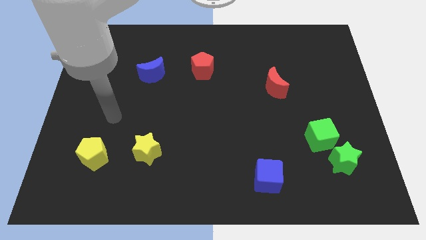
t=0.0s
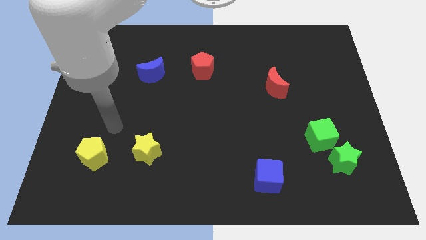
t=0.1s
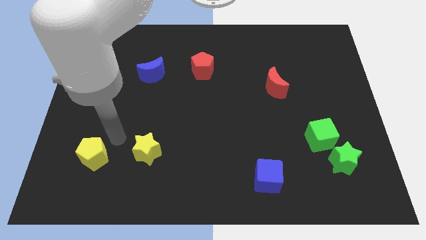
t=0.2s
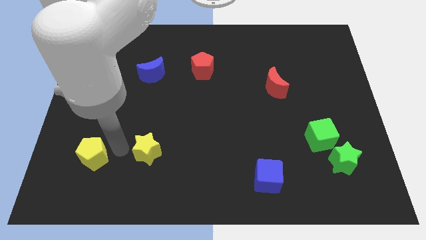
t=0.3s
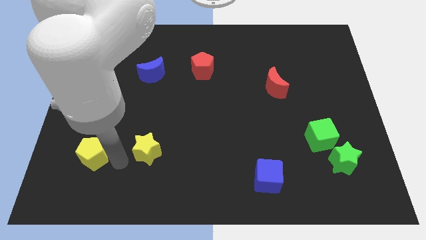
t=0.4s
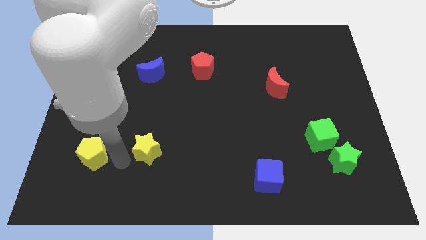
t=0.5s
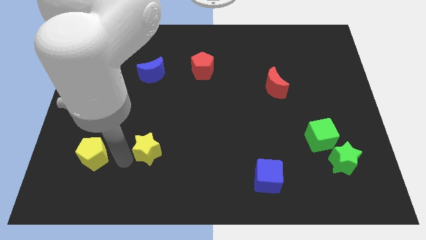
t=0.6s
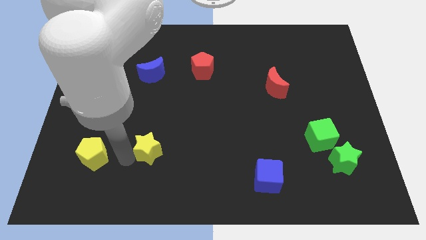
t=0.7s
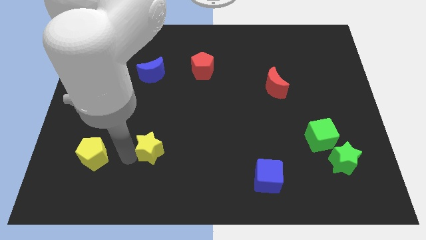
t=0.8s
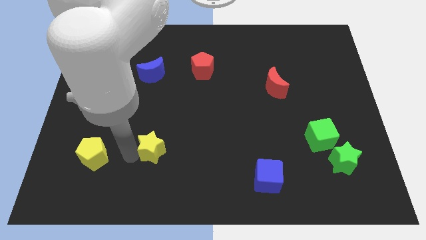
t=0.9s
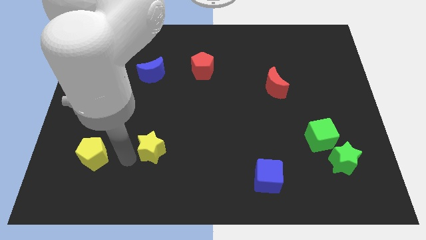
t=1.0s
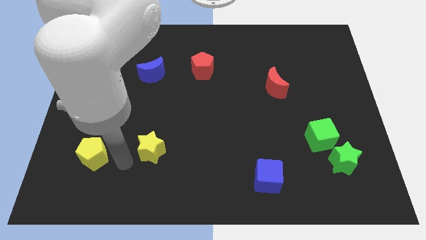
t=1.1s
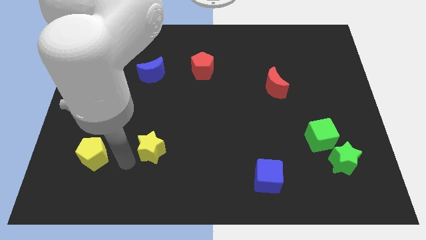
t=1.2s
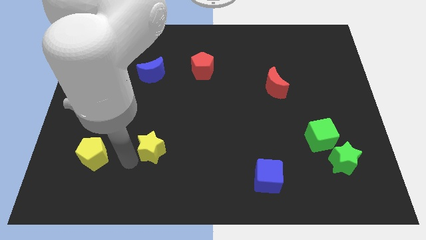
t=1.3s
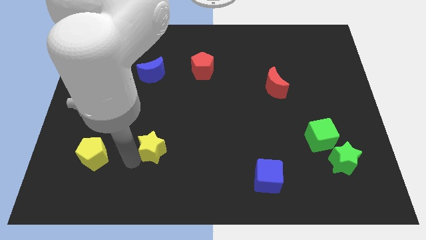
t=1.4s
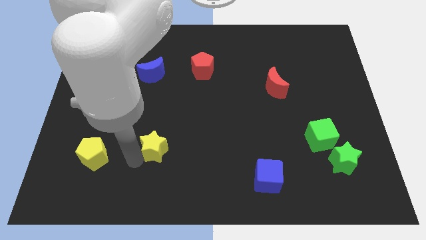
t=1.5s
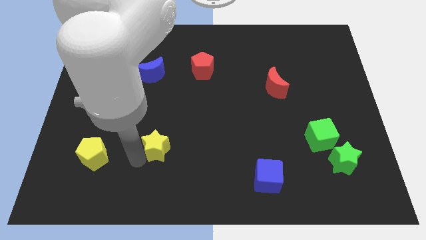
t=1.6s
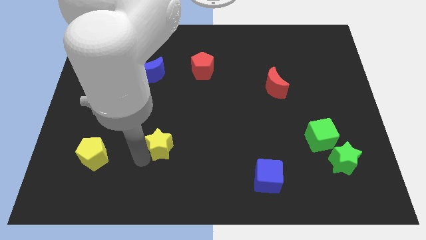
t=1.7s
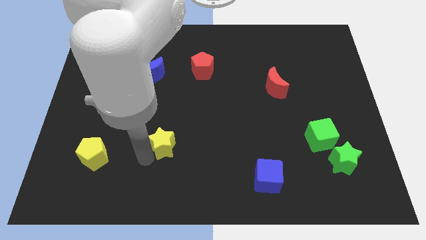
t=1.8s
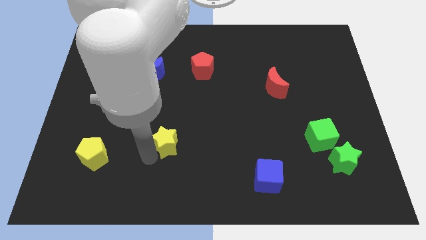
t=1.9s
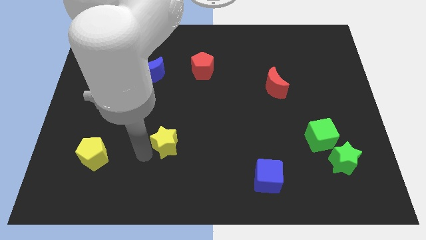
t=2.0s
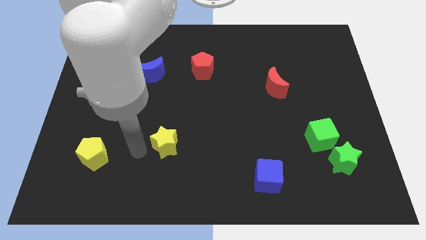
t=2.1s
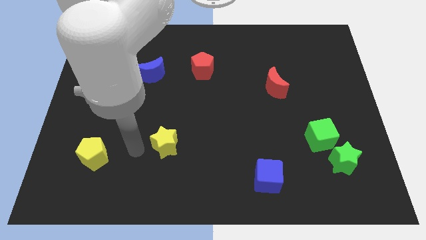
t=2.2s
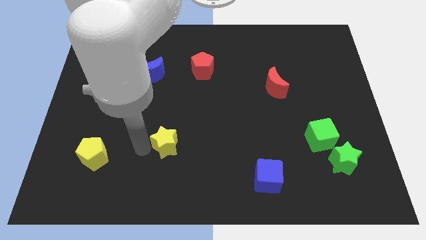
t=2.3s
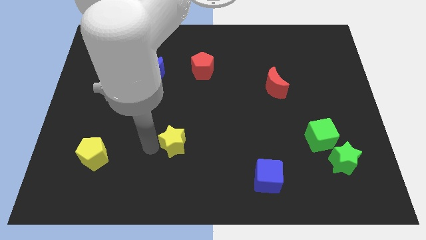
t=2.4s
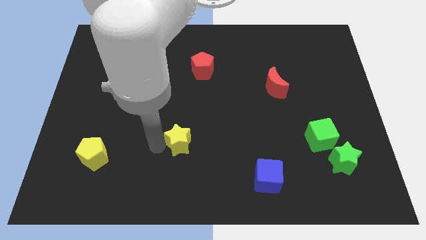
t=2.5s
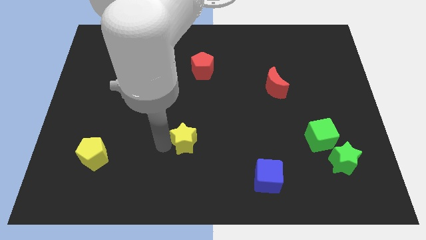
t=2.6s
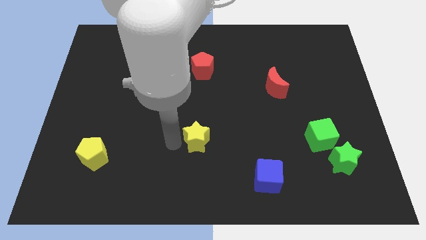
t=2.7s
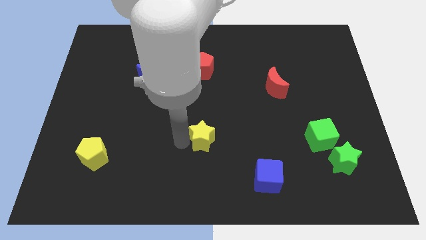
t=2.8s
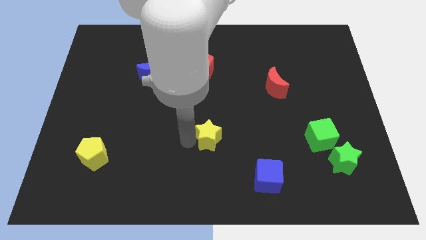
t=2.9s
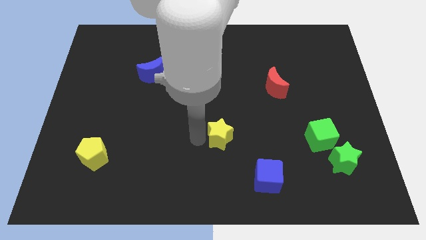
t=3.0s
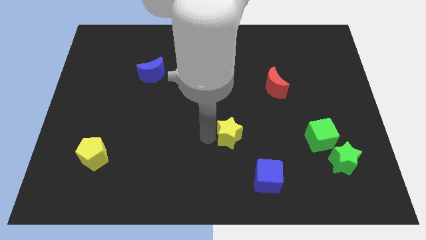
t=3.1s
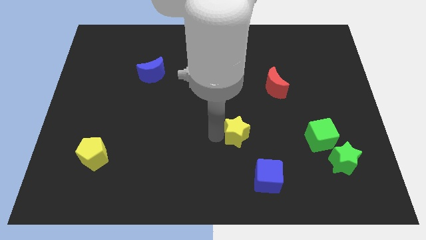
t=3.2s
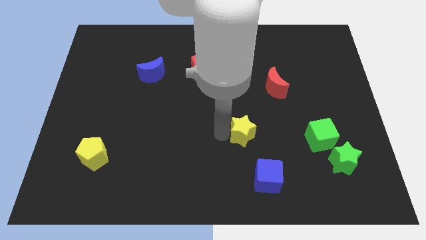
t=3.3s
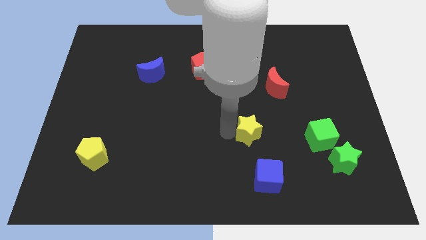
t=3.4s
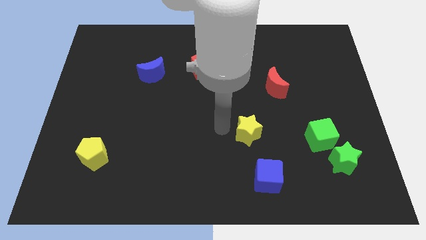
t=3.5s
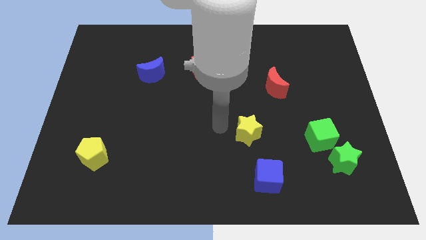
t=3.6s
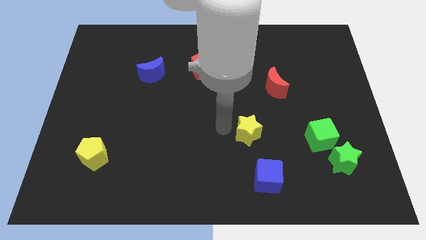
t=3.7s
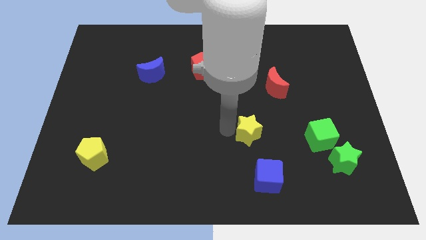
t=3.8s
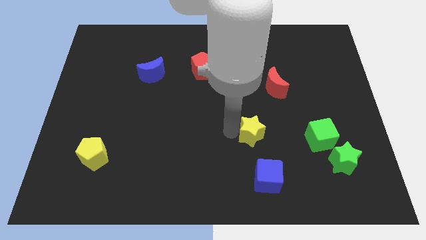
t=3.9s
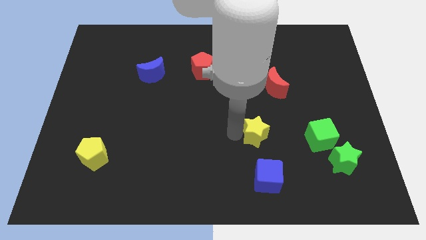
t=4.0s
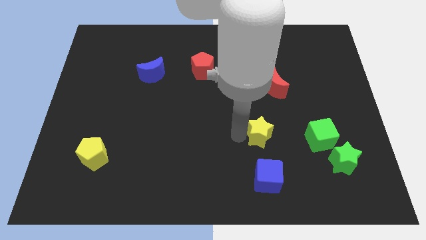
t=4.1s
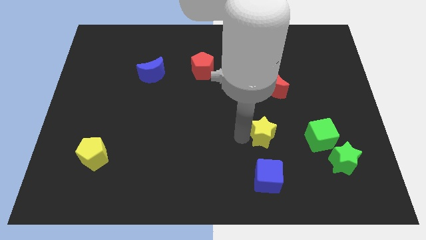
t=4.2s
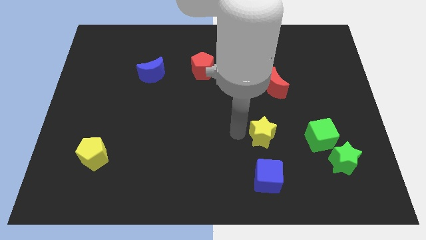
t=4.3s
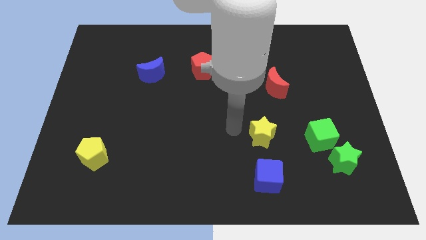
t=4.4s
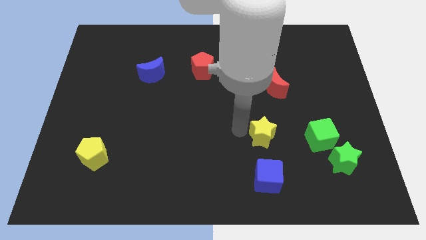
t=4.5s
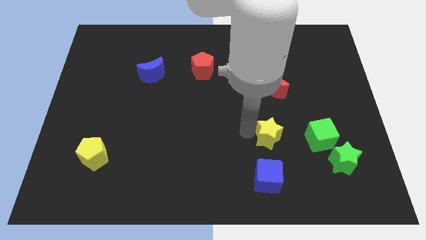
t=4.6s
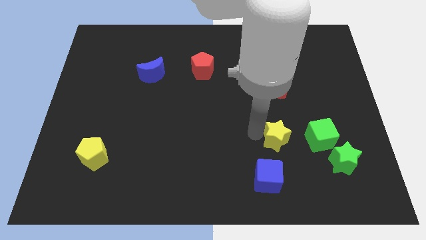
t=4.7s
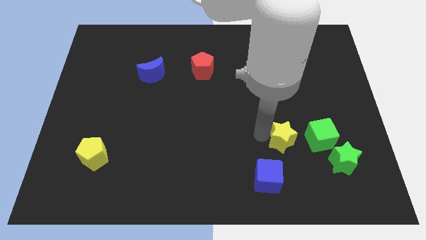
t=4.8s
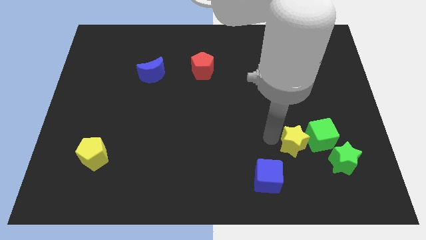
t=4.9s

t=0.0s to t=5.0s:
move the yellow star towards the green cube

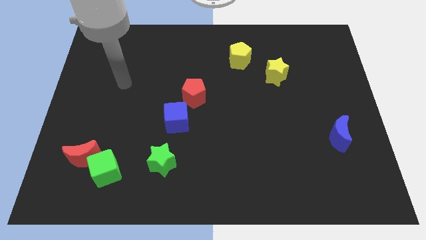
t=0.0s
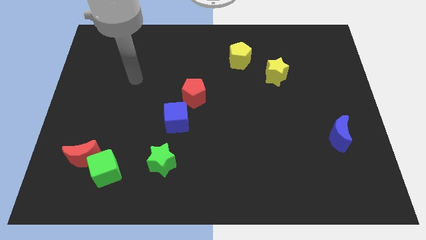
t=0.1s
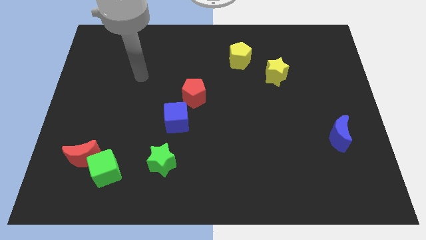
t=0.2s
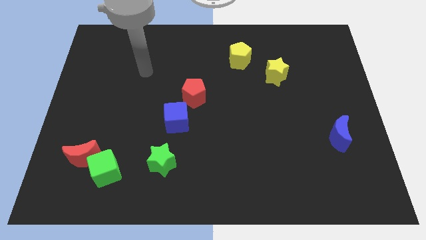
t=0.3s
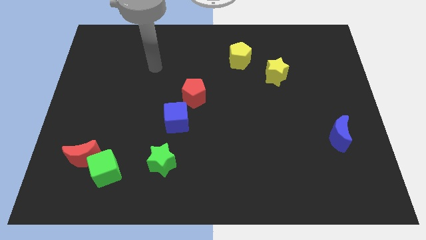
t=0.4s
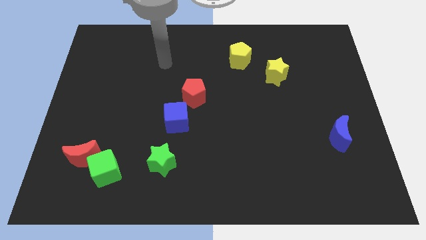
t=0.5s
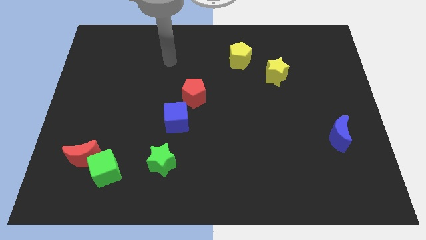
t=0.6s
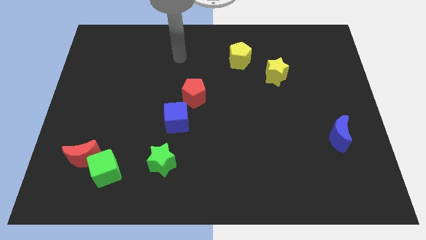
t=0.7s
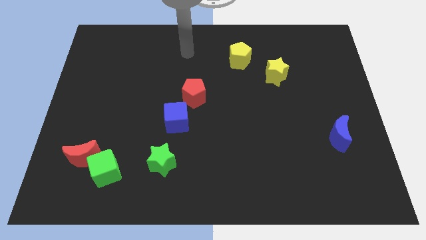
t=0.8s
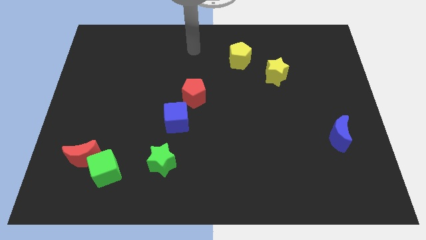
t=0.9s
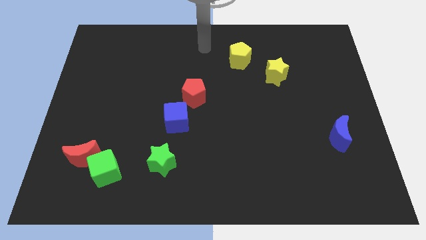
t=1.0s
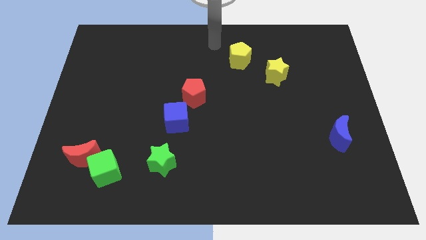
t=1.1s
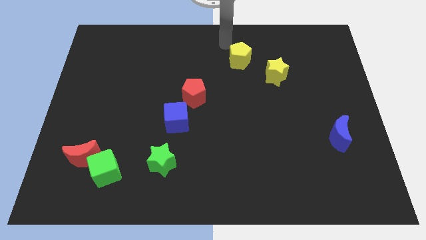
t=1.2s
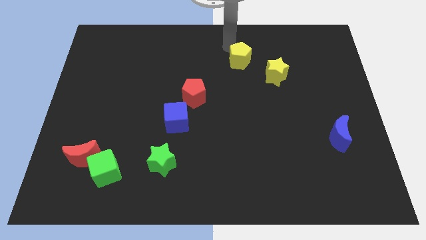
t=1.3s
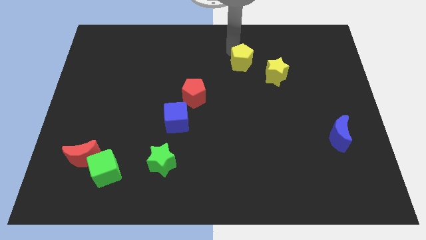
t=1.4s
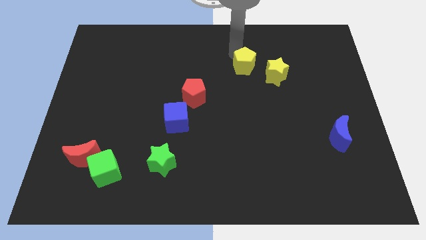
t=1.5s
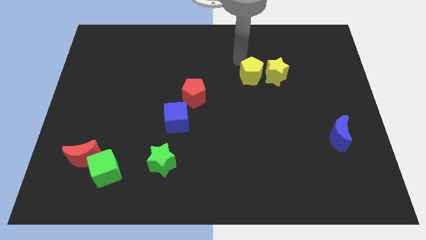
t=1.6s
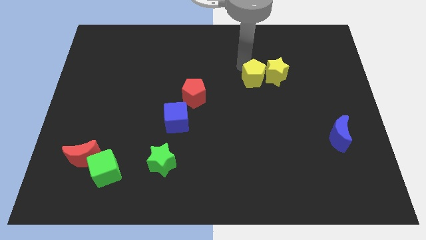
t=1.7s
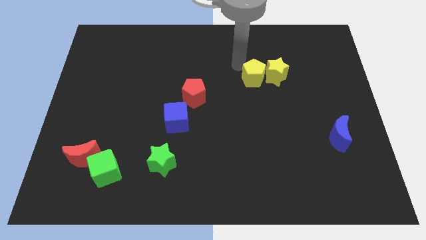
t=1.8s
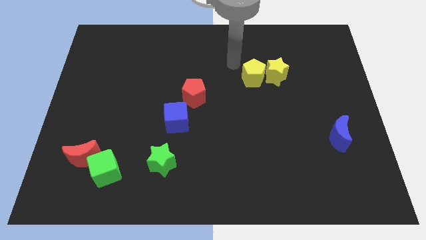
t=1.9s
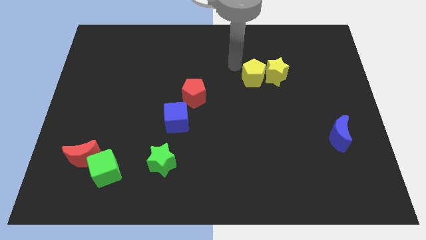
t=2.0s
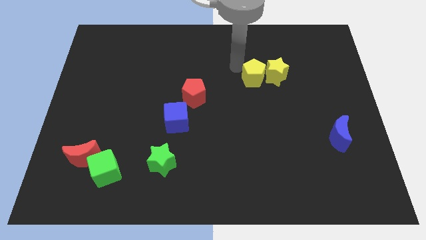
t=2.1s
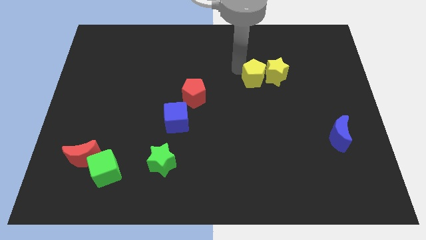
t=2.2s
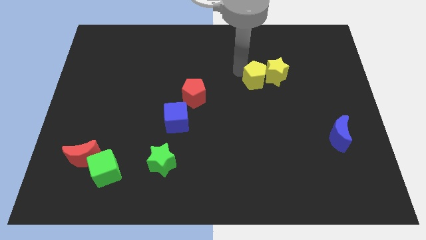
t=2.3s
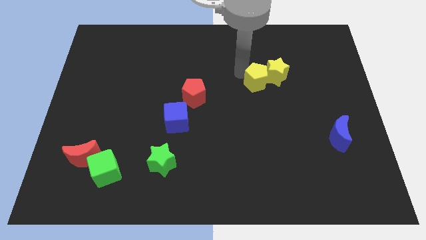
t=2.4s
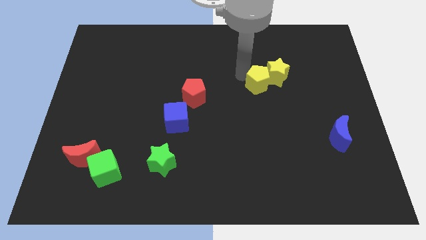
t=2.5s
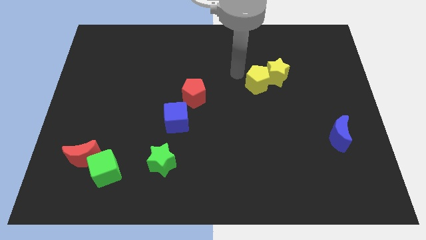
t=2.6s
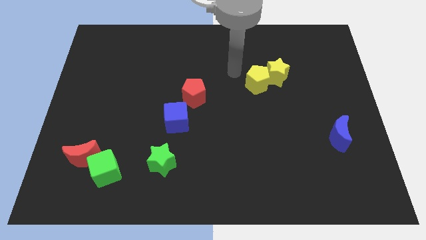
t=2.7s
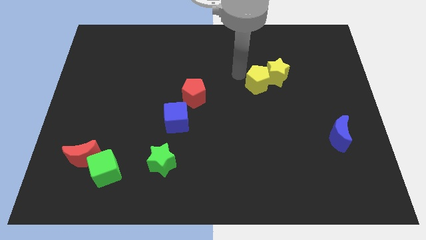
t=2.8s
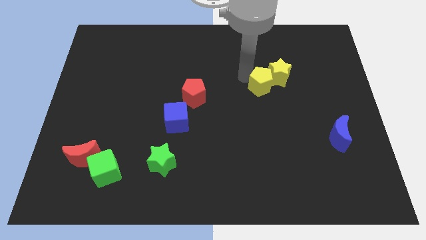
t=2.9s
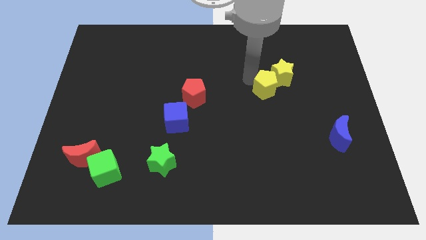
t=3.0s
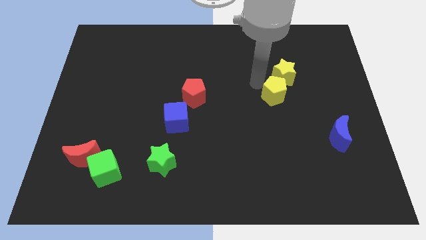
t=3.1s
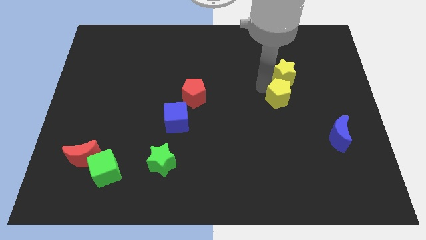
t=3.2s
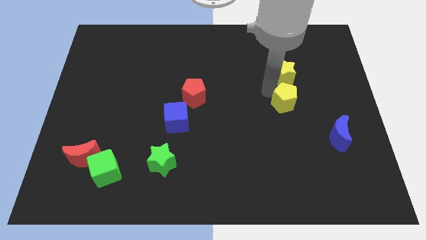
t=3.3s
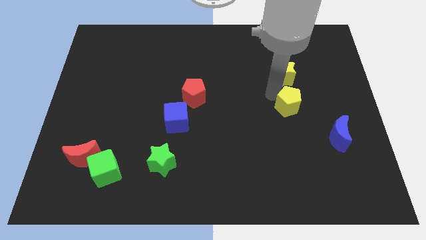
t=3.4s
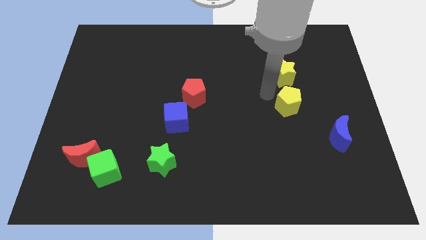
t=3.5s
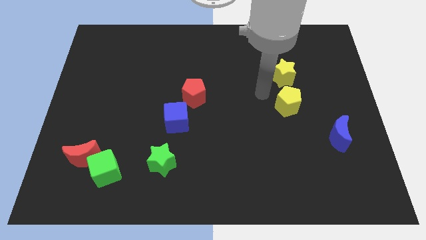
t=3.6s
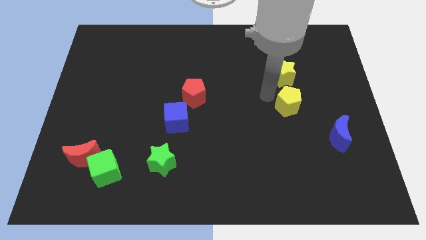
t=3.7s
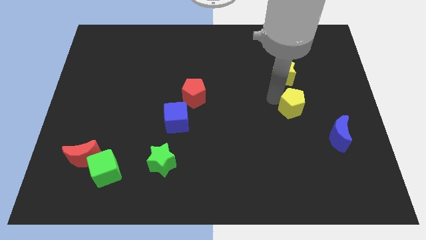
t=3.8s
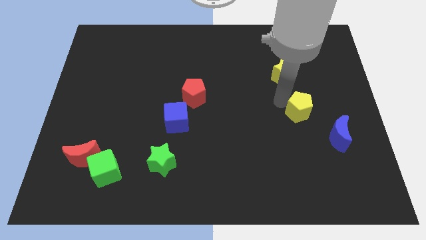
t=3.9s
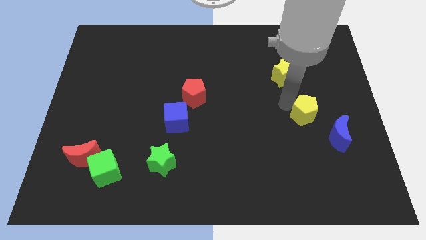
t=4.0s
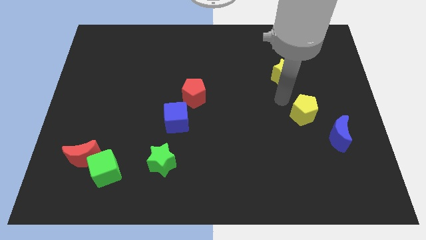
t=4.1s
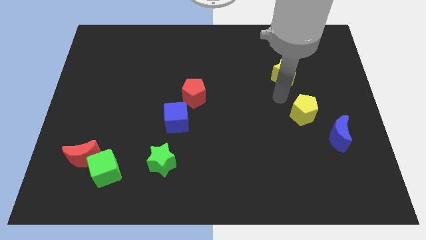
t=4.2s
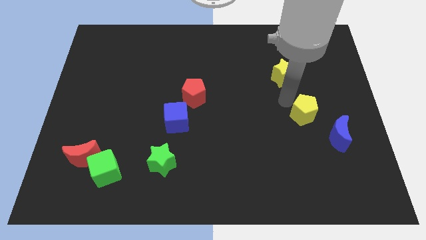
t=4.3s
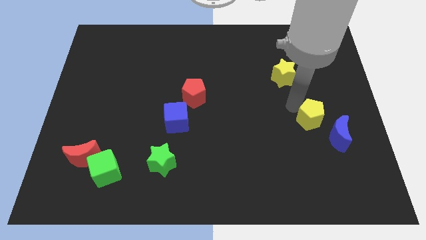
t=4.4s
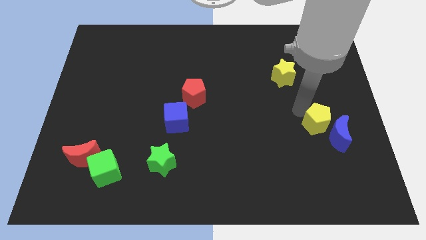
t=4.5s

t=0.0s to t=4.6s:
push the yellow pentagon to the blue moon
